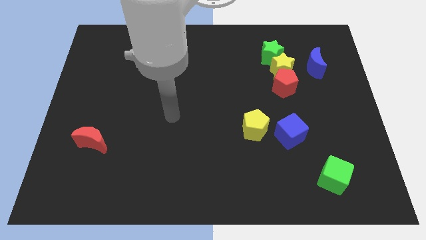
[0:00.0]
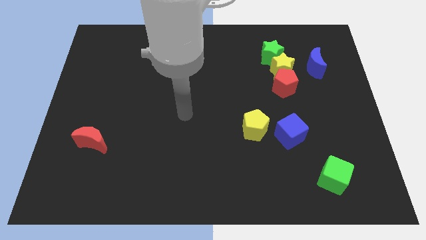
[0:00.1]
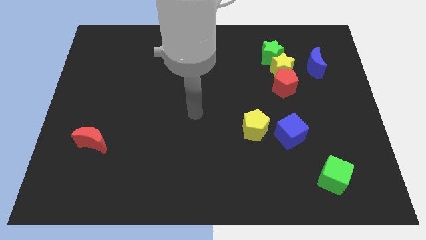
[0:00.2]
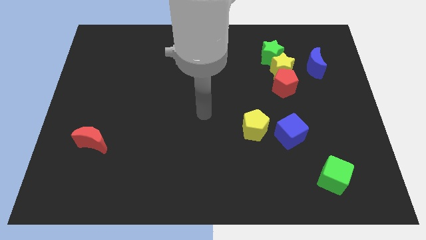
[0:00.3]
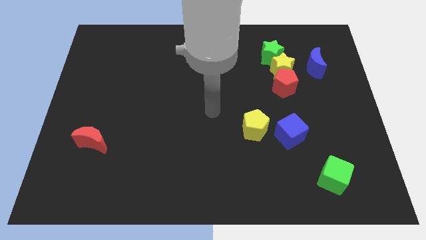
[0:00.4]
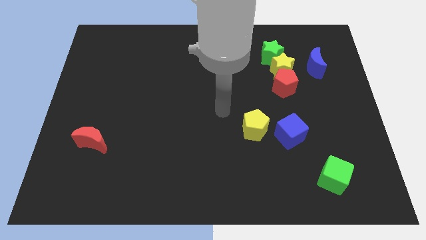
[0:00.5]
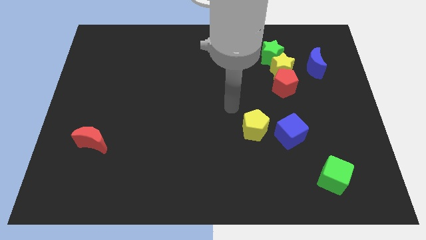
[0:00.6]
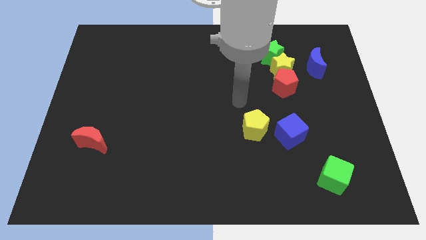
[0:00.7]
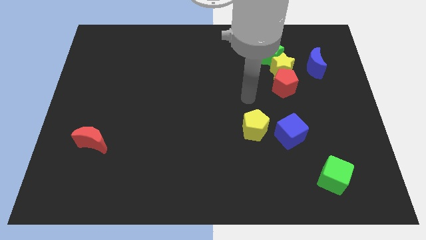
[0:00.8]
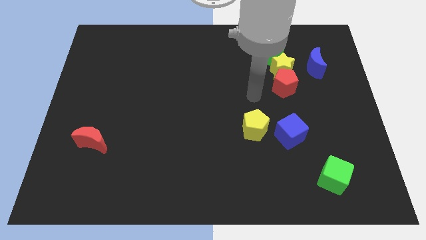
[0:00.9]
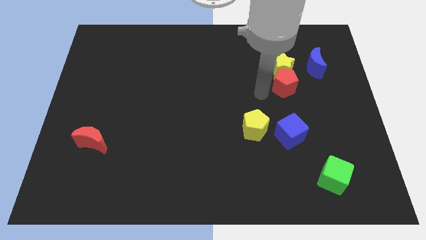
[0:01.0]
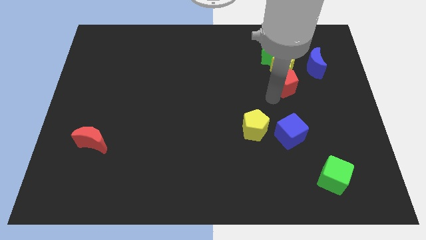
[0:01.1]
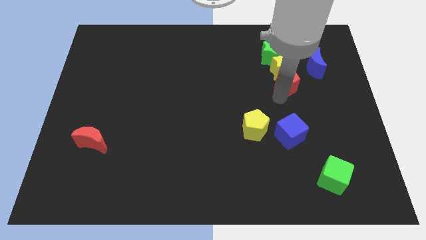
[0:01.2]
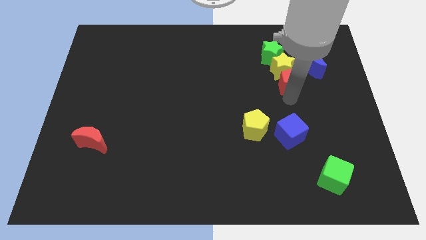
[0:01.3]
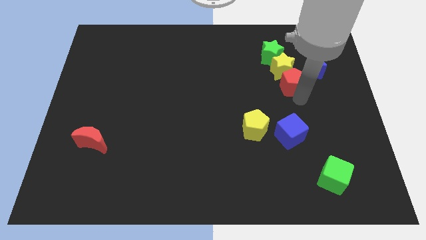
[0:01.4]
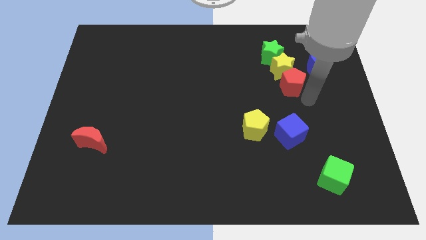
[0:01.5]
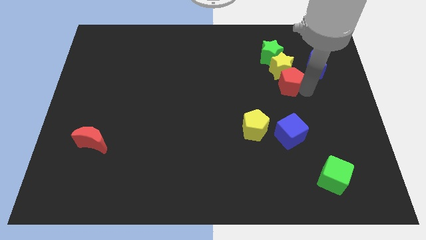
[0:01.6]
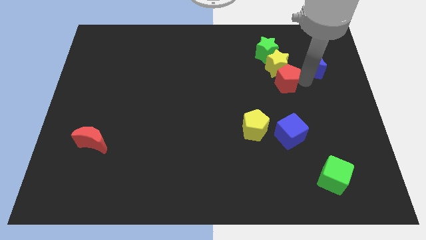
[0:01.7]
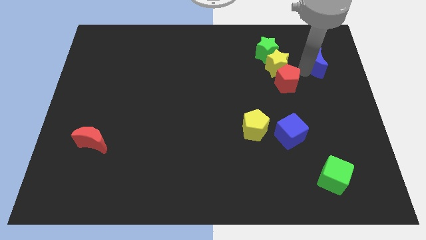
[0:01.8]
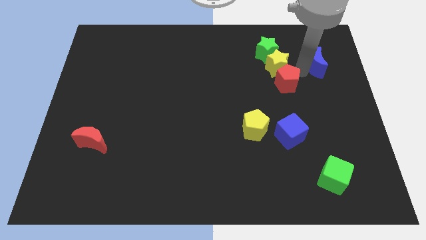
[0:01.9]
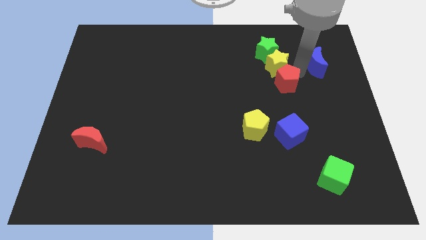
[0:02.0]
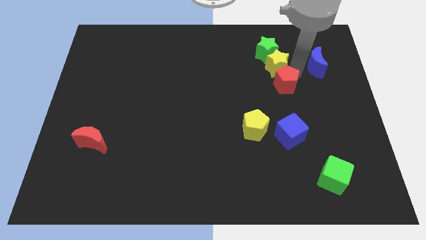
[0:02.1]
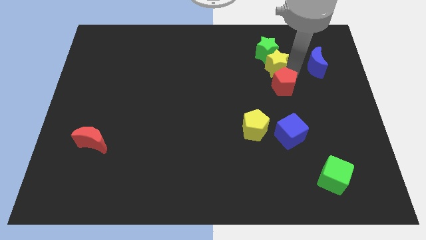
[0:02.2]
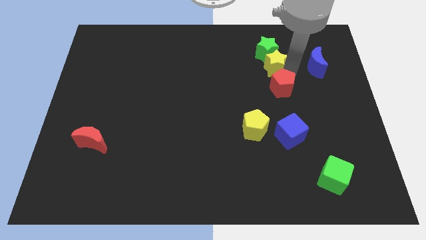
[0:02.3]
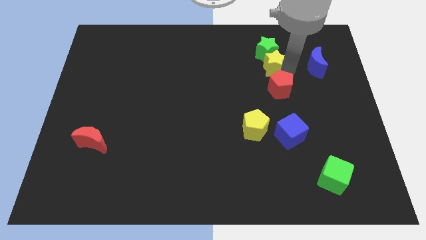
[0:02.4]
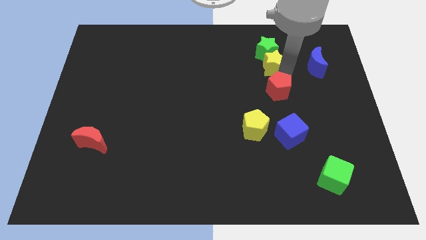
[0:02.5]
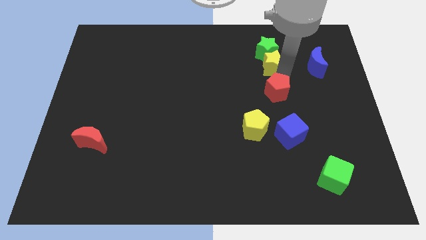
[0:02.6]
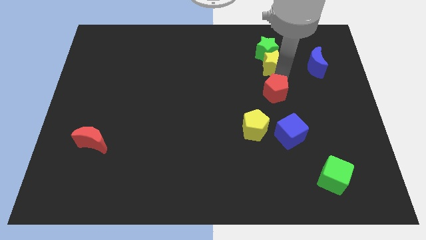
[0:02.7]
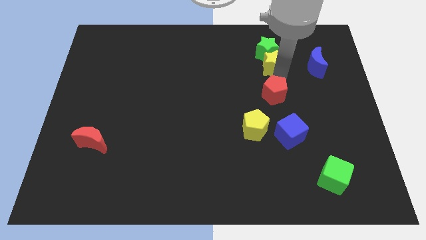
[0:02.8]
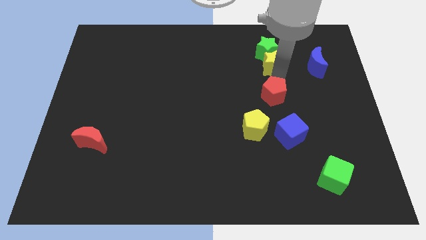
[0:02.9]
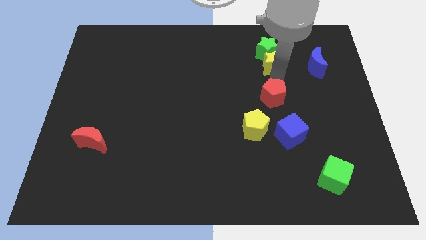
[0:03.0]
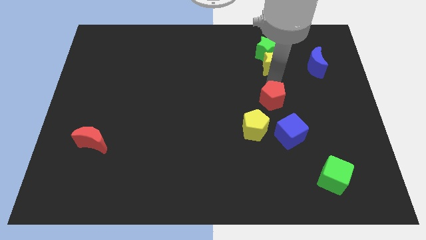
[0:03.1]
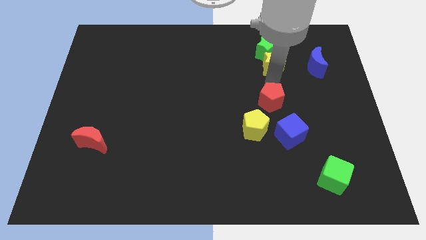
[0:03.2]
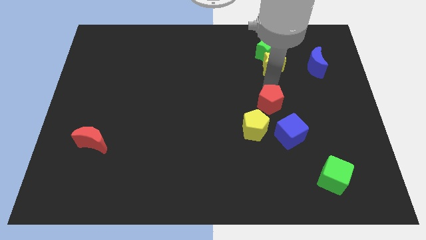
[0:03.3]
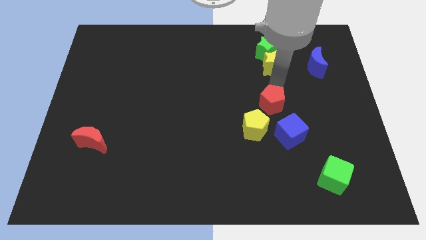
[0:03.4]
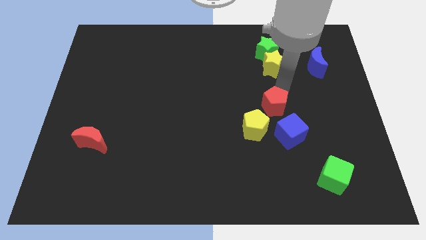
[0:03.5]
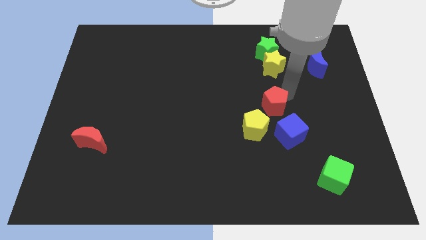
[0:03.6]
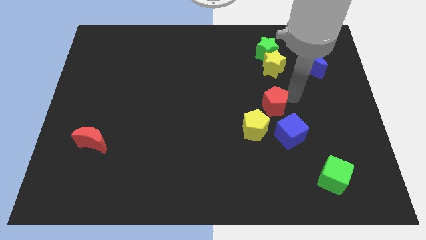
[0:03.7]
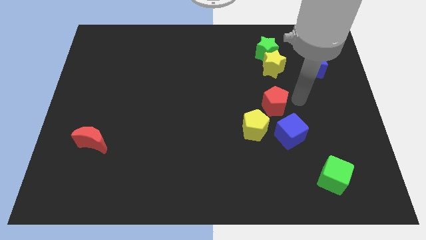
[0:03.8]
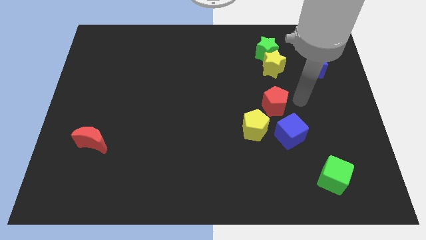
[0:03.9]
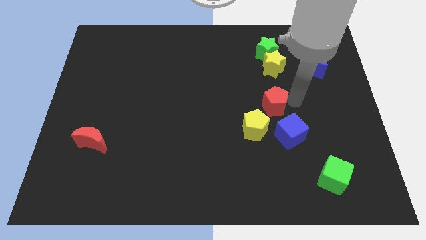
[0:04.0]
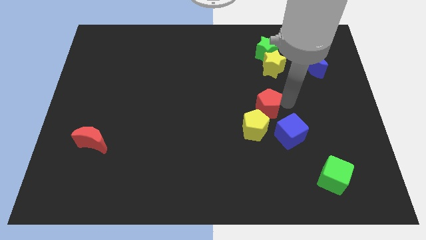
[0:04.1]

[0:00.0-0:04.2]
slide the red pentagon downwards and left a bit

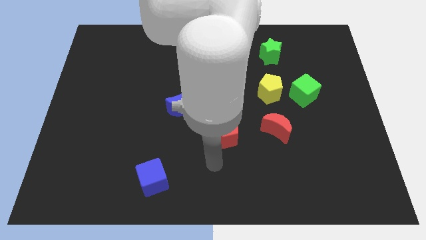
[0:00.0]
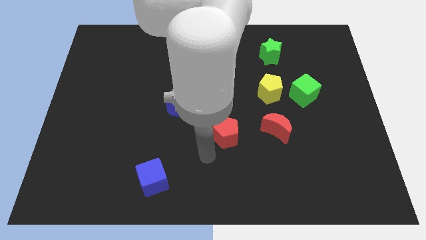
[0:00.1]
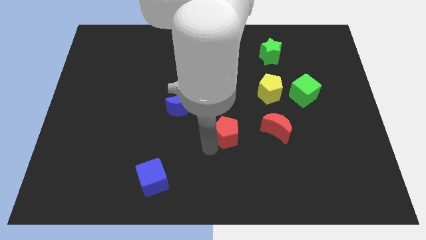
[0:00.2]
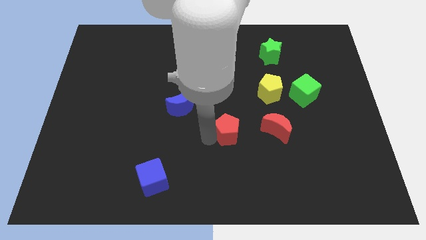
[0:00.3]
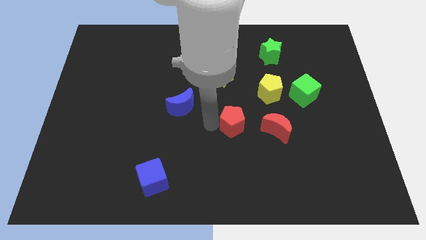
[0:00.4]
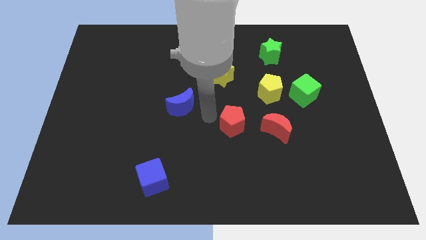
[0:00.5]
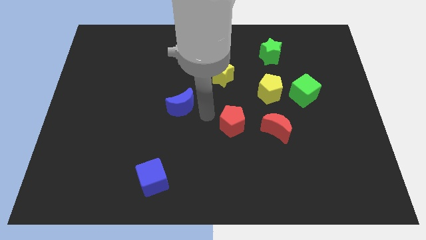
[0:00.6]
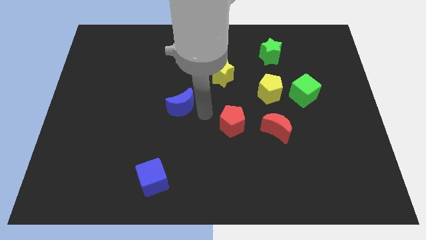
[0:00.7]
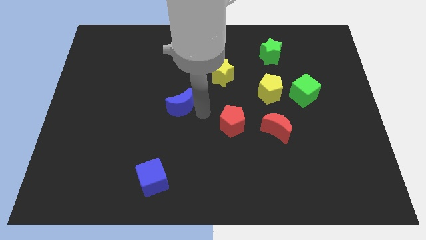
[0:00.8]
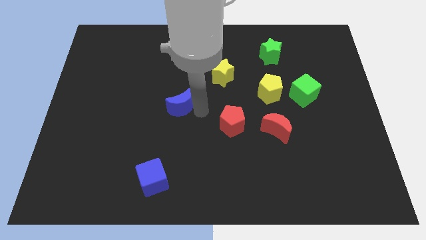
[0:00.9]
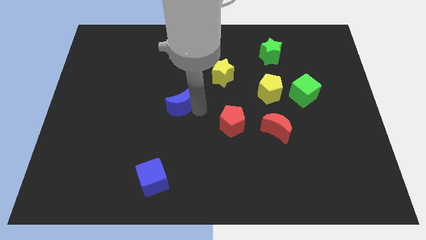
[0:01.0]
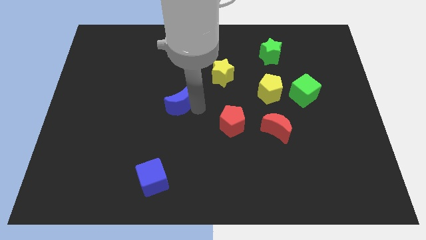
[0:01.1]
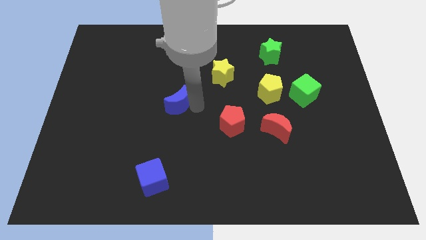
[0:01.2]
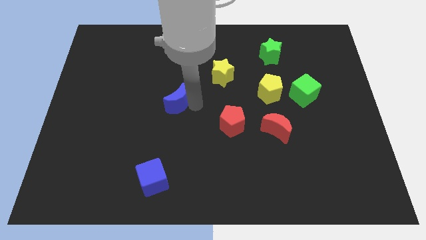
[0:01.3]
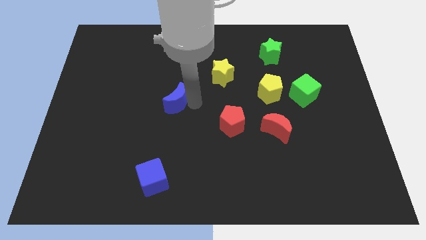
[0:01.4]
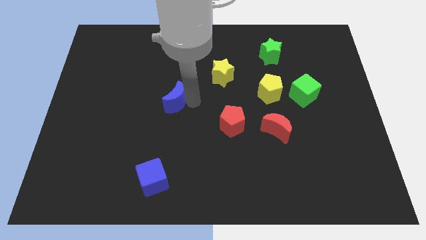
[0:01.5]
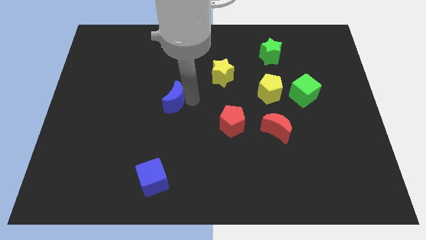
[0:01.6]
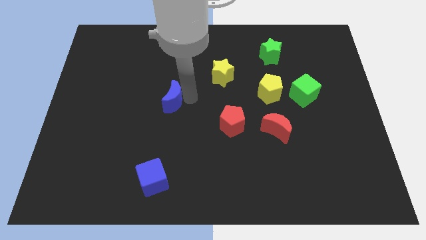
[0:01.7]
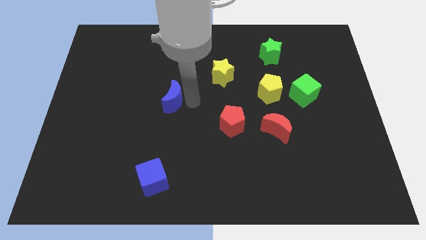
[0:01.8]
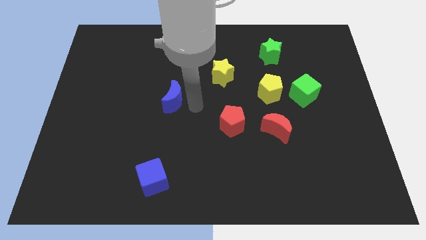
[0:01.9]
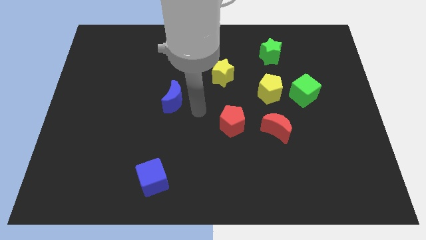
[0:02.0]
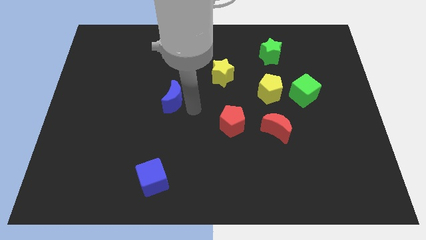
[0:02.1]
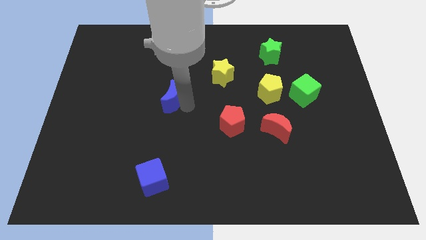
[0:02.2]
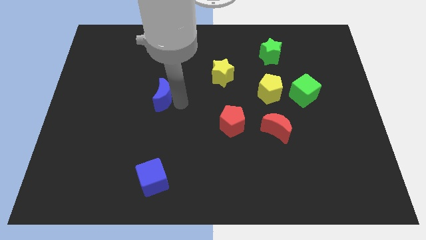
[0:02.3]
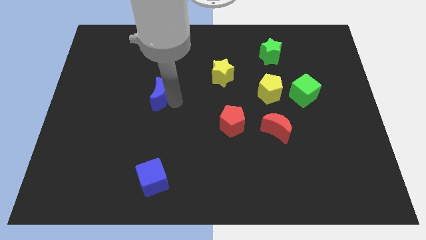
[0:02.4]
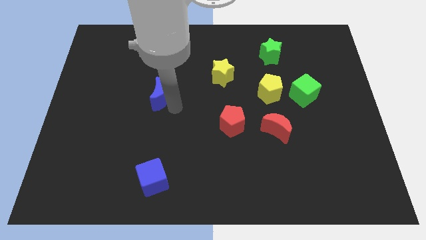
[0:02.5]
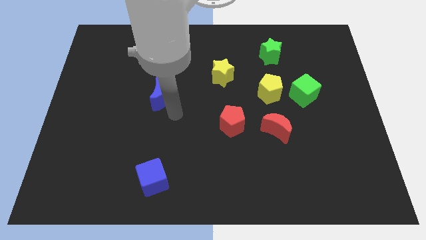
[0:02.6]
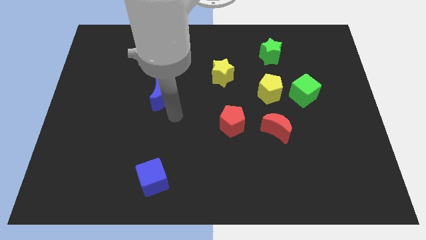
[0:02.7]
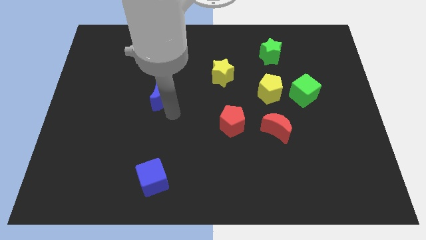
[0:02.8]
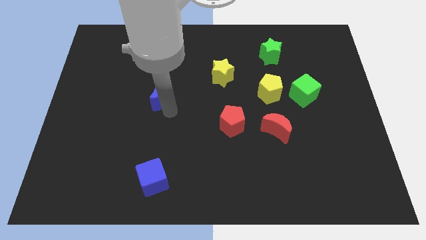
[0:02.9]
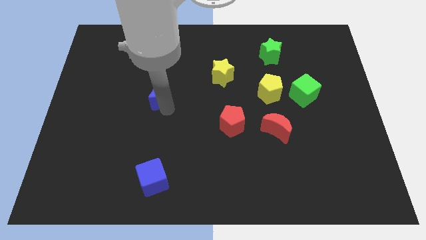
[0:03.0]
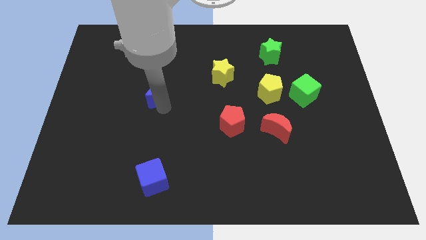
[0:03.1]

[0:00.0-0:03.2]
push the blue moon upwards and then left slightly

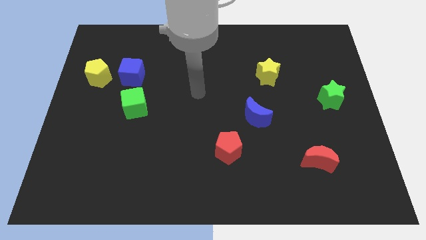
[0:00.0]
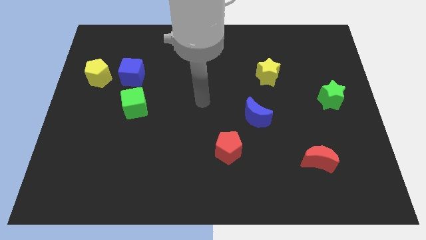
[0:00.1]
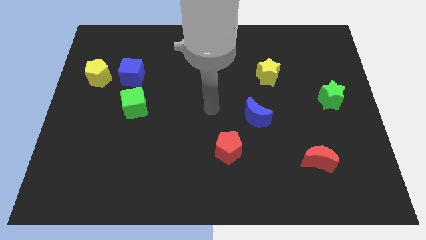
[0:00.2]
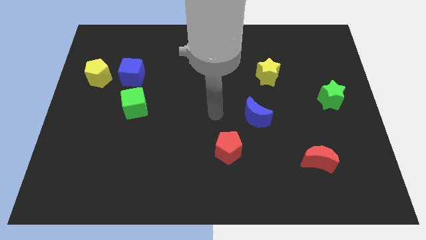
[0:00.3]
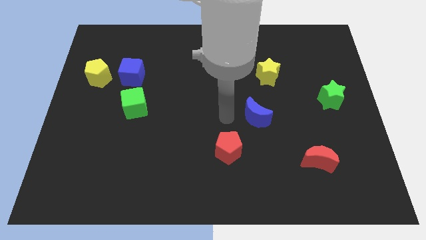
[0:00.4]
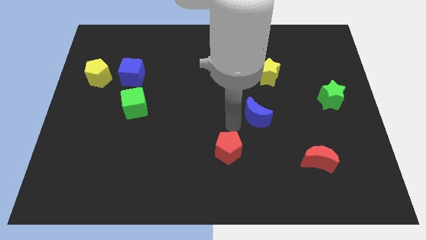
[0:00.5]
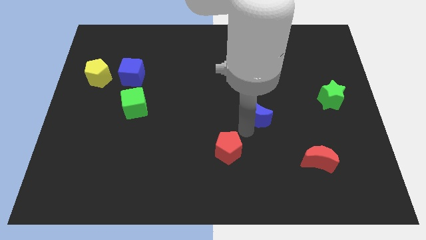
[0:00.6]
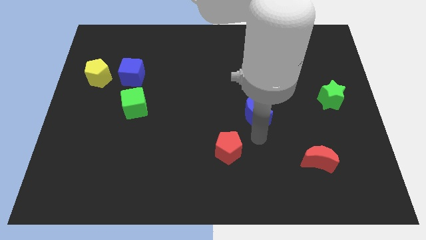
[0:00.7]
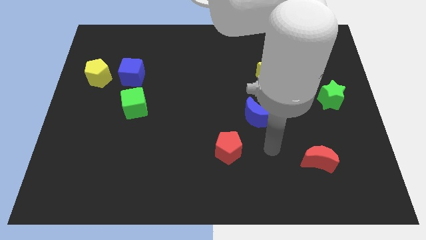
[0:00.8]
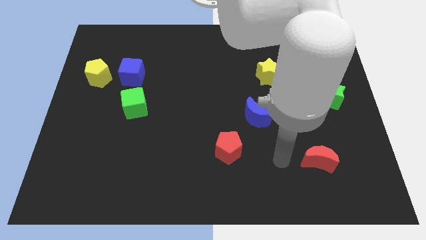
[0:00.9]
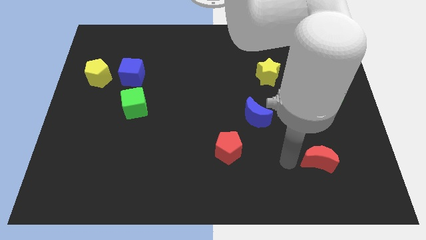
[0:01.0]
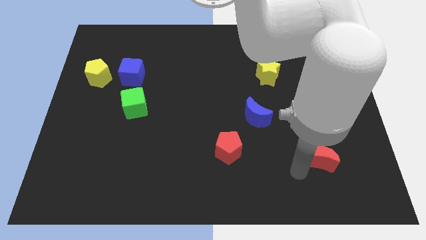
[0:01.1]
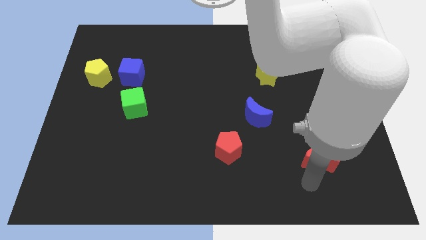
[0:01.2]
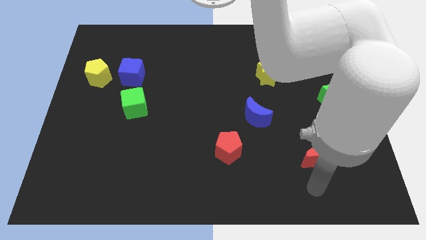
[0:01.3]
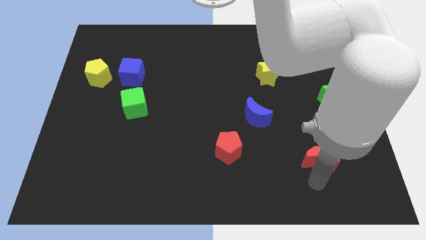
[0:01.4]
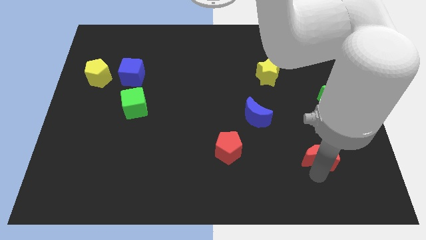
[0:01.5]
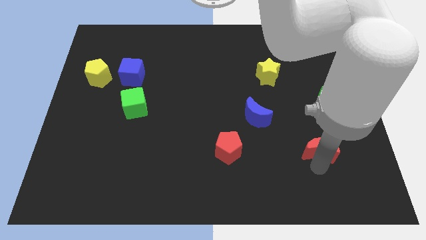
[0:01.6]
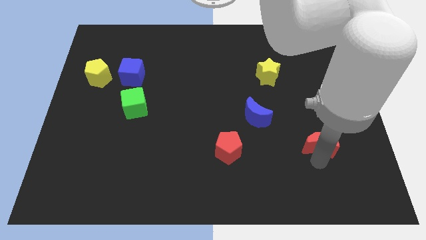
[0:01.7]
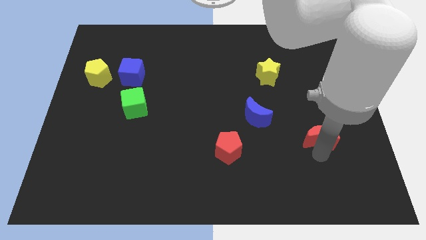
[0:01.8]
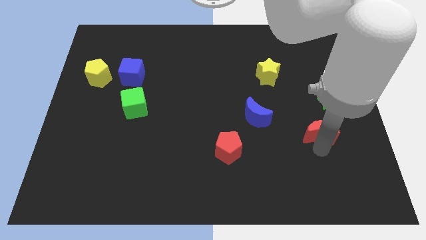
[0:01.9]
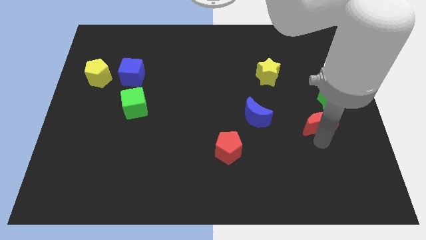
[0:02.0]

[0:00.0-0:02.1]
push the red moon upwards slightly
